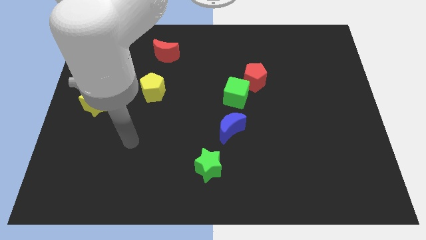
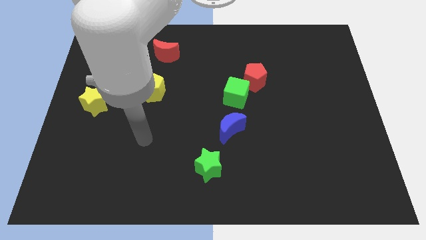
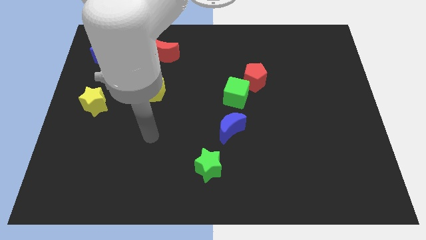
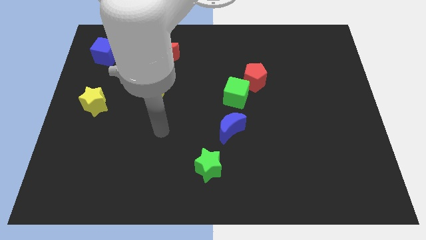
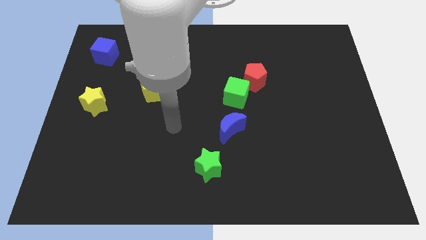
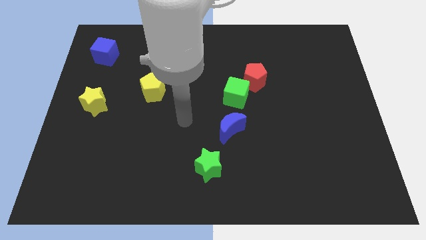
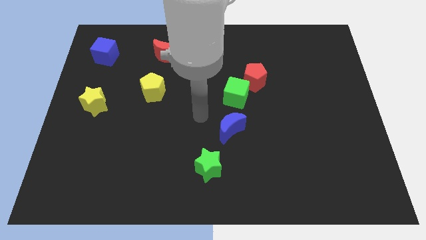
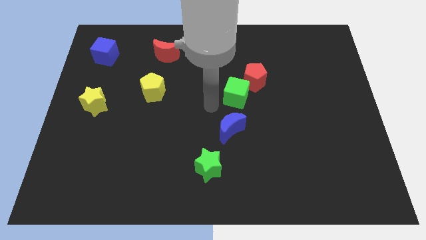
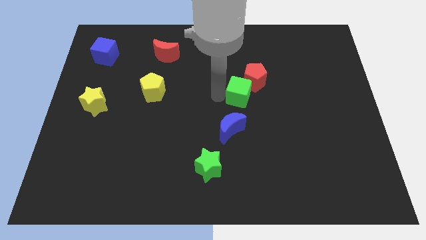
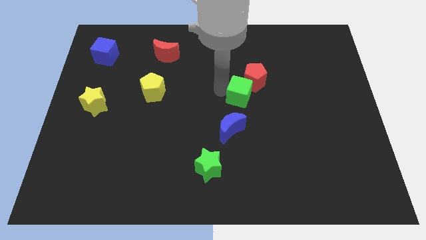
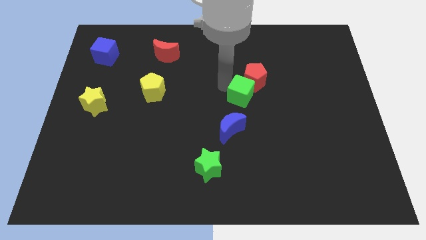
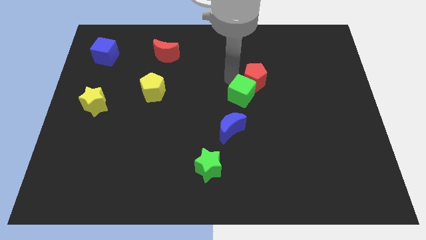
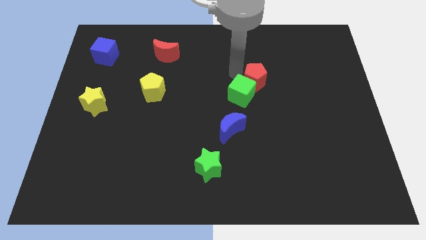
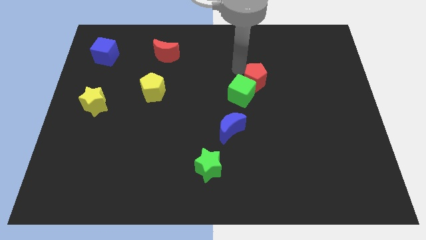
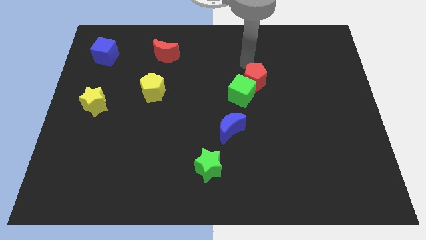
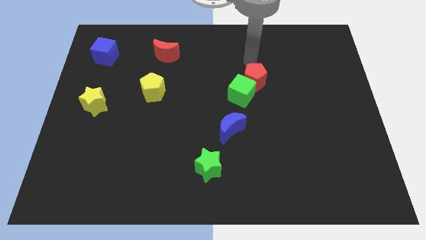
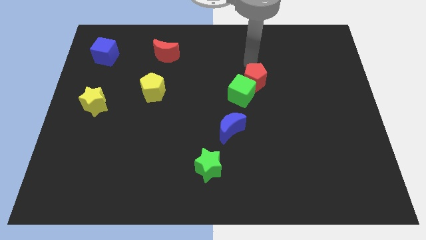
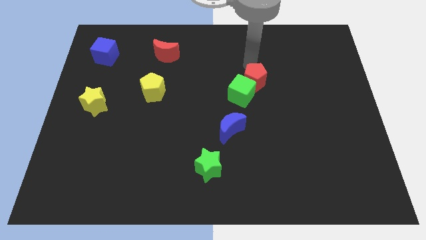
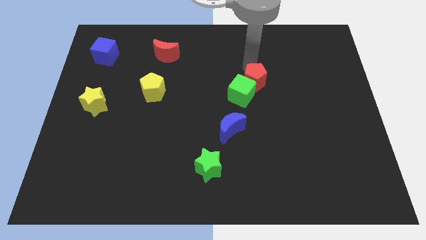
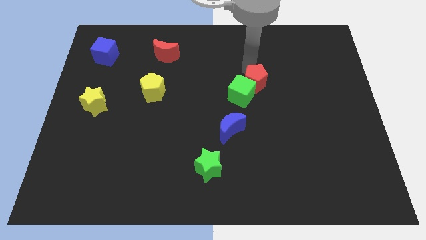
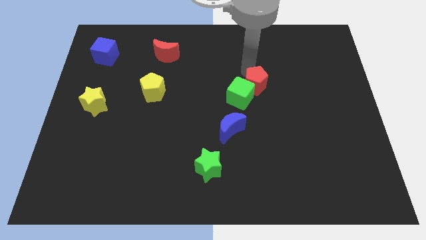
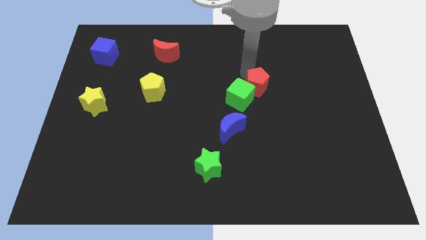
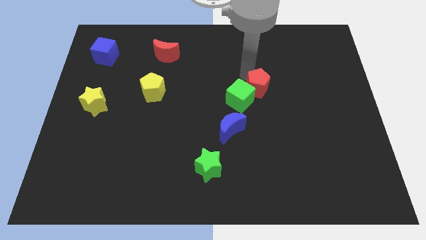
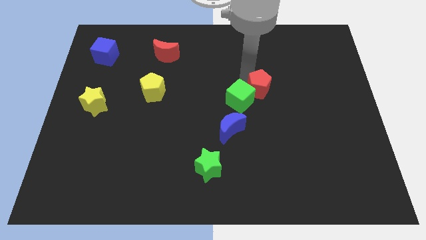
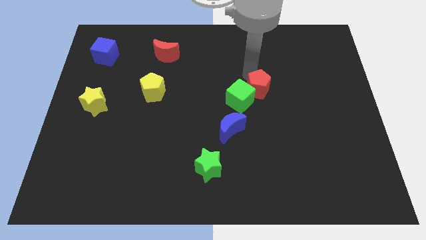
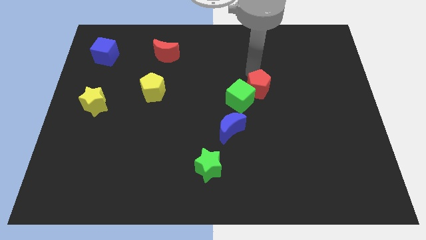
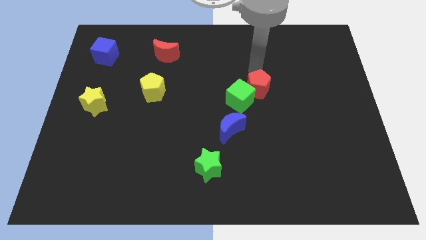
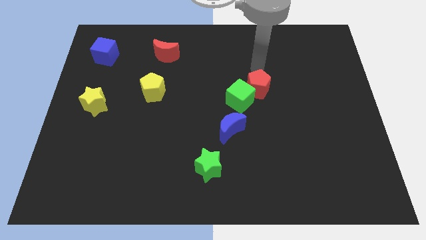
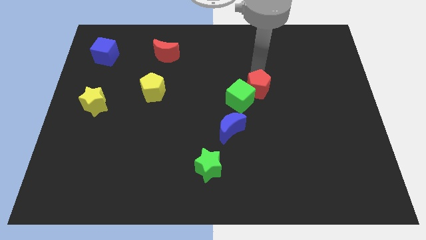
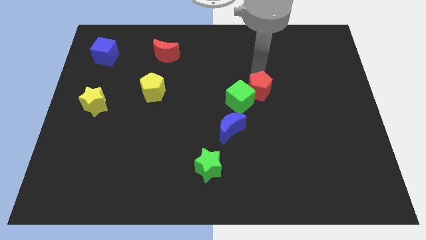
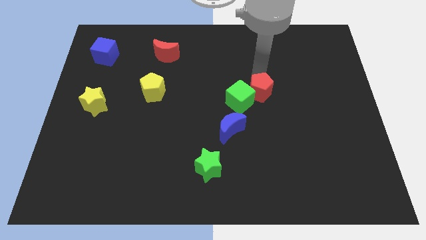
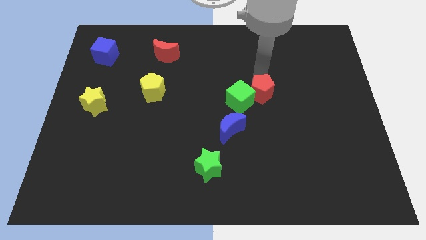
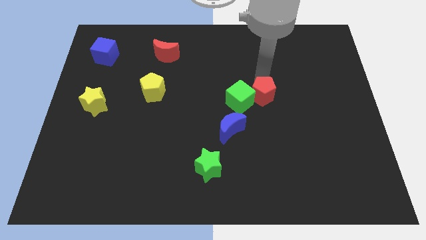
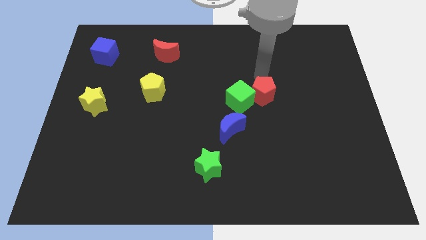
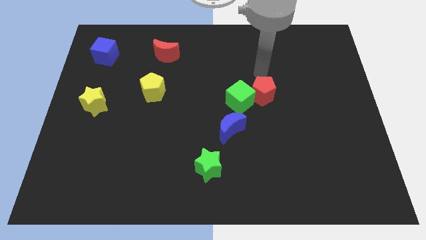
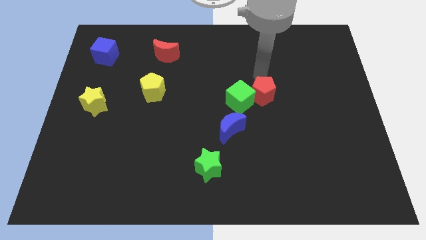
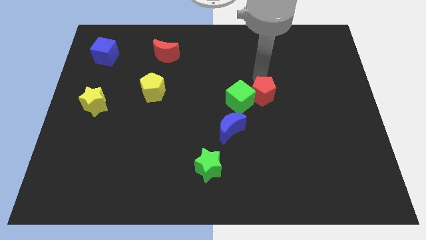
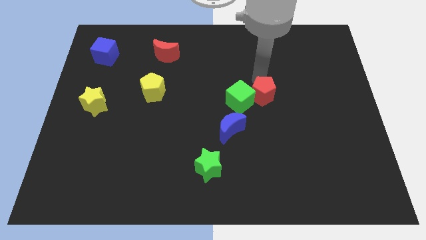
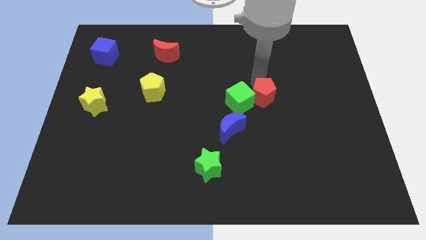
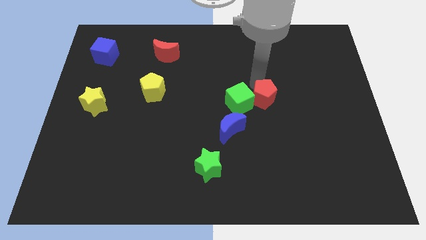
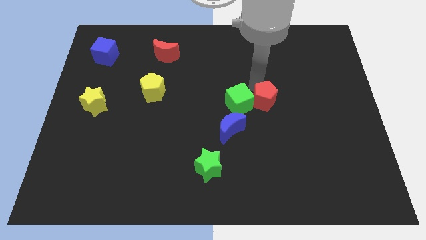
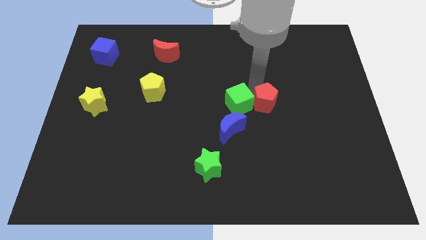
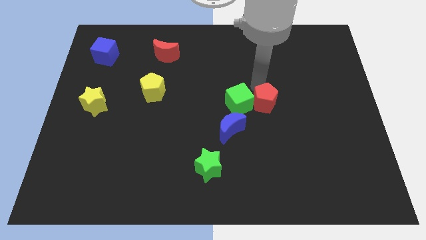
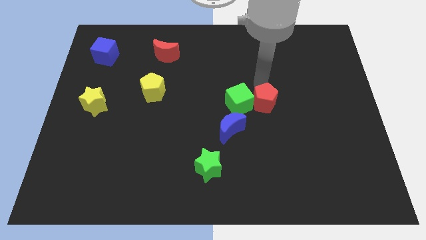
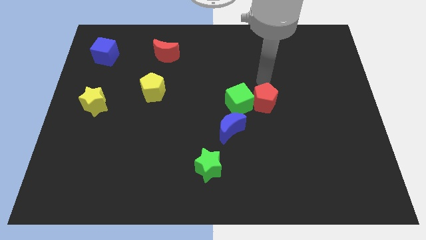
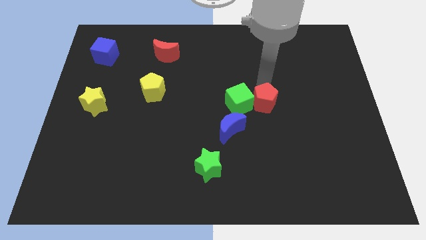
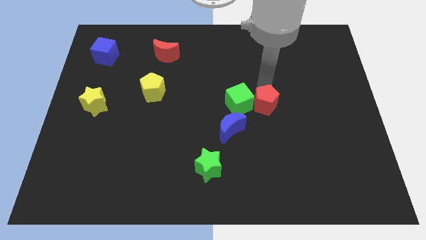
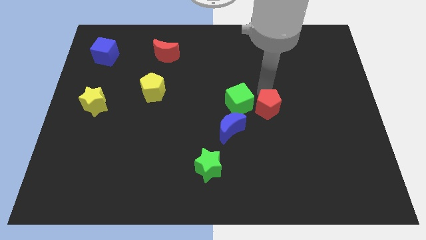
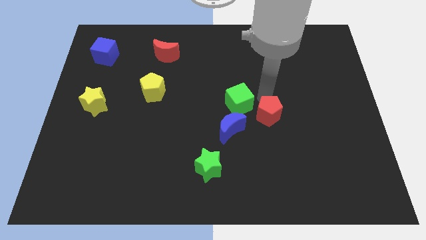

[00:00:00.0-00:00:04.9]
push the red pentagon to the right side of the blue moon

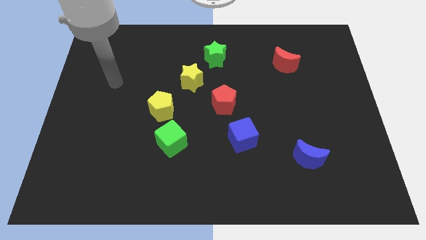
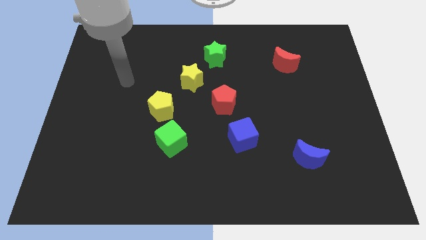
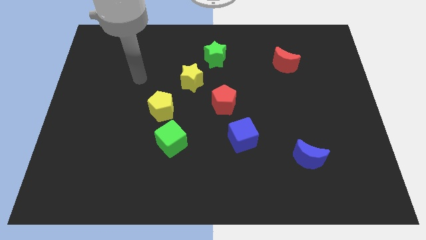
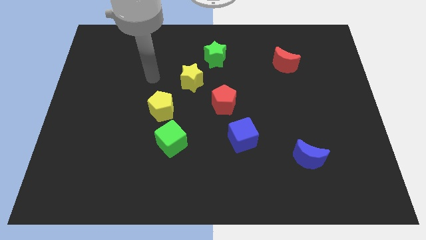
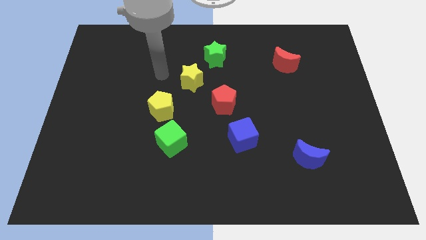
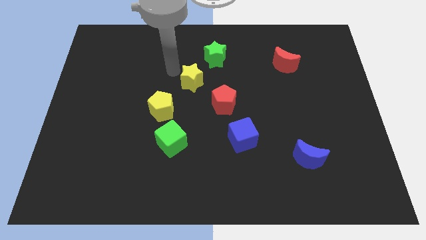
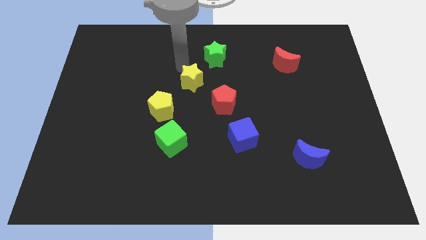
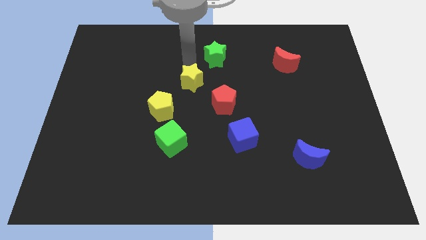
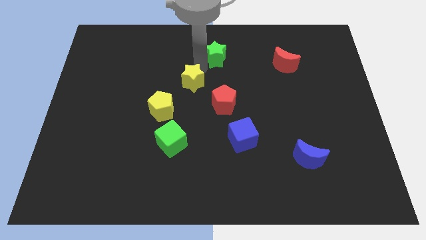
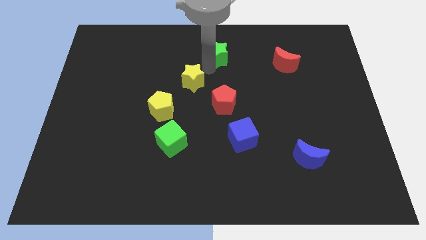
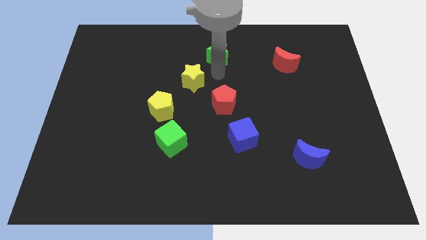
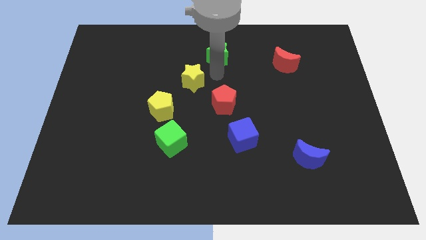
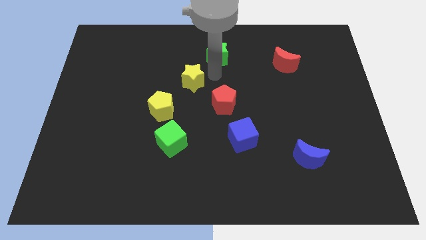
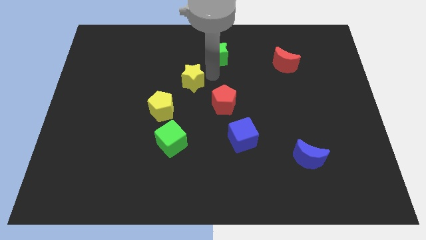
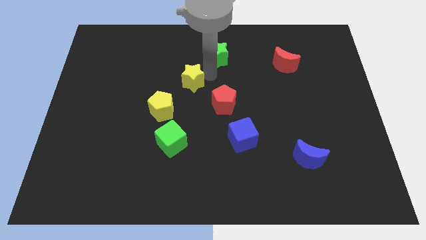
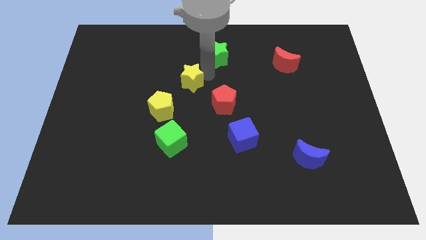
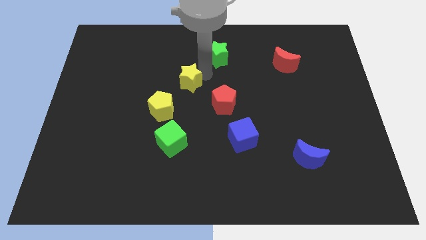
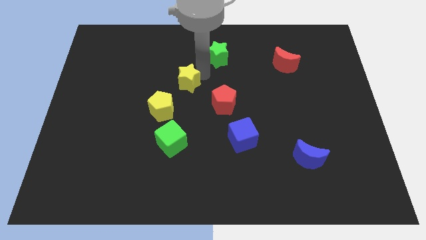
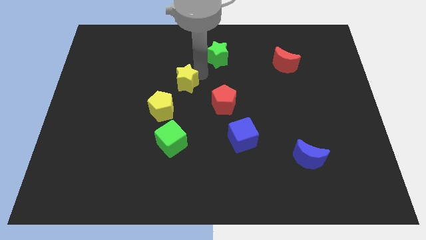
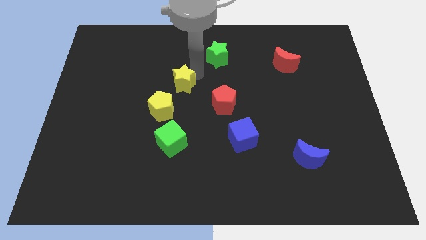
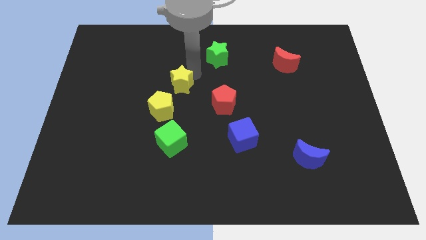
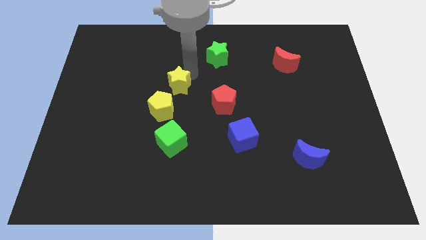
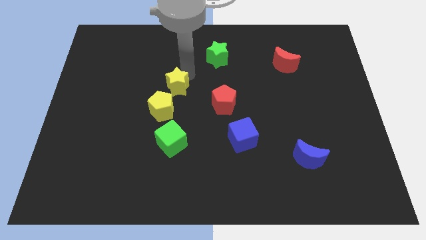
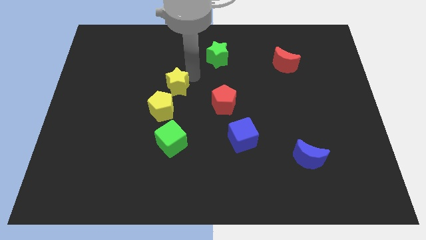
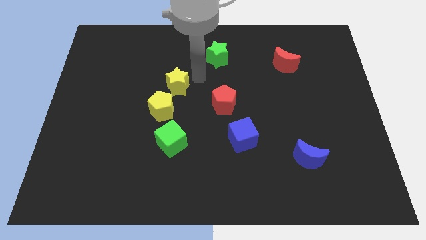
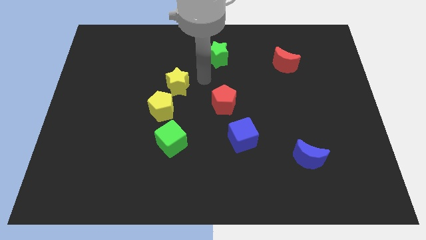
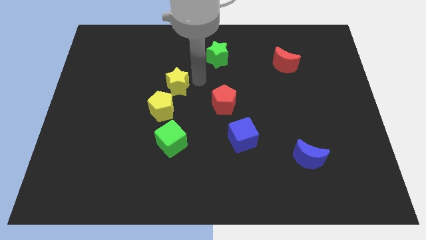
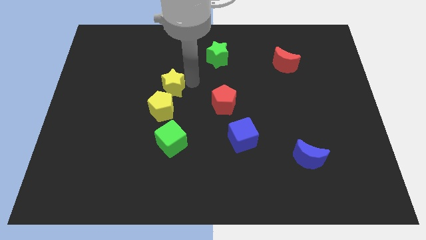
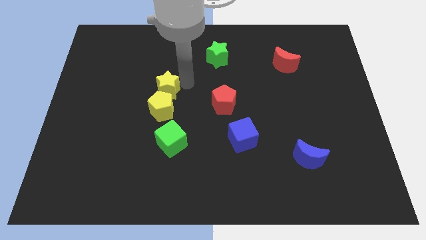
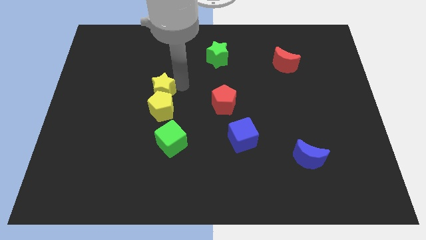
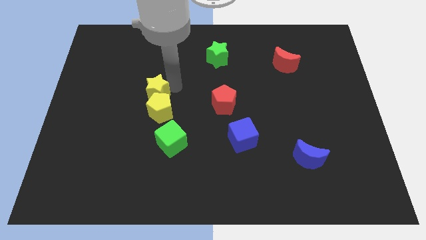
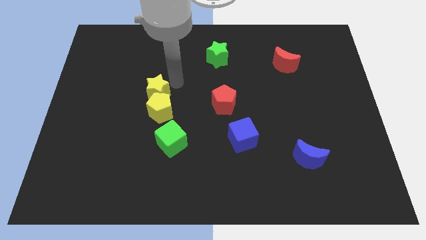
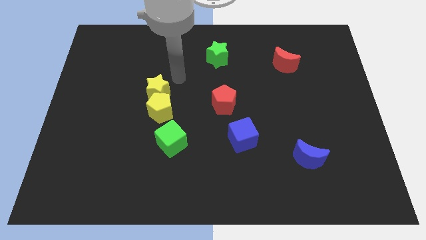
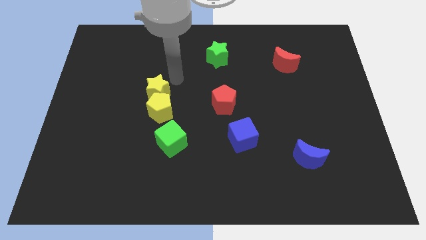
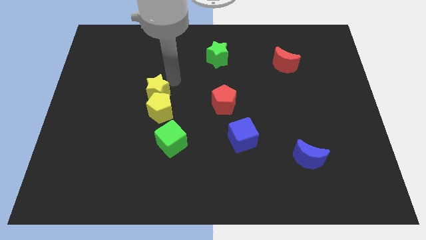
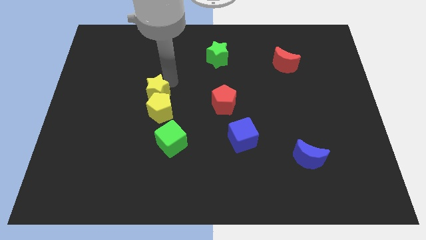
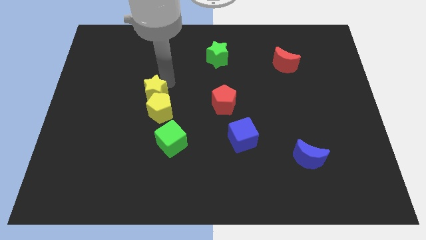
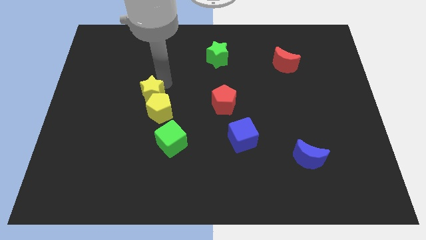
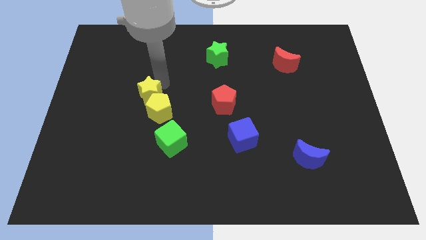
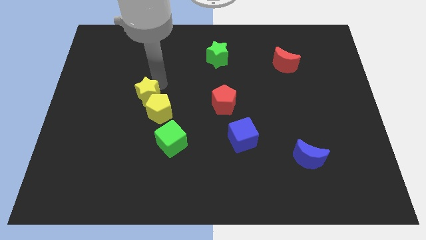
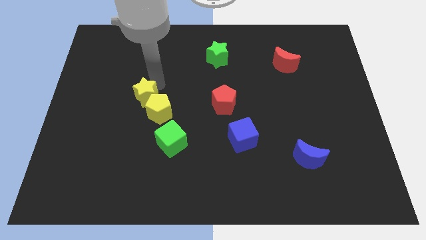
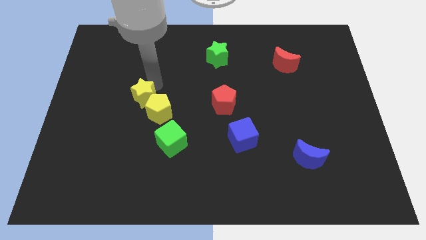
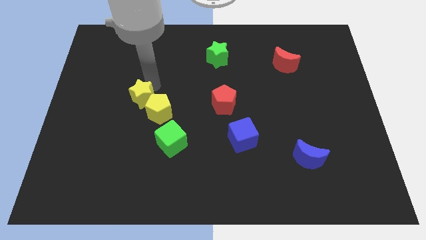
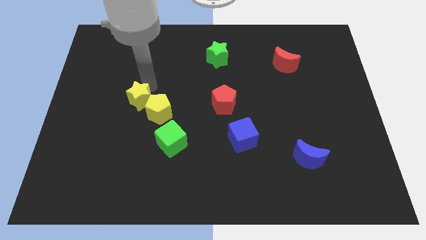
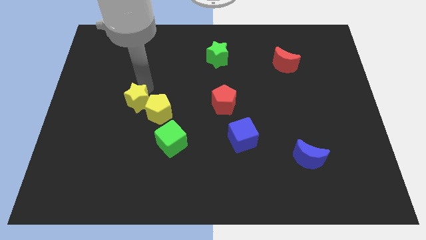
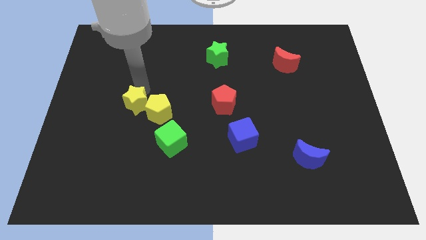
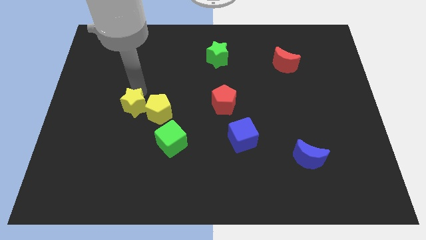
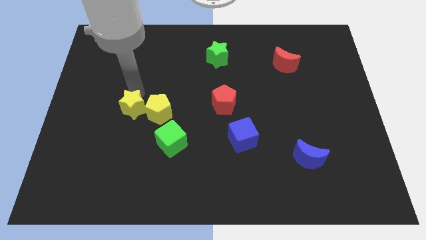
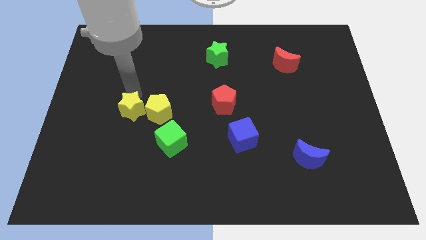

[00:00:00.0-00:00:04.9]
push the yellow star to the bottom left side of the yellow pentagon
